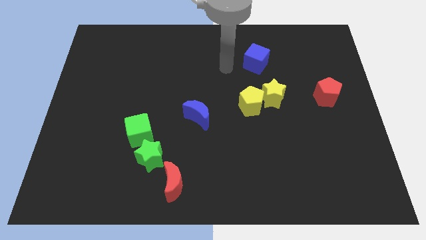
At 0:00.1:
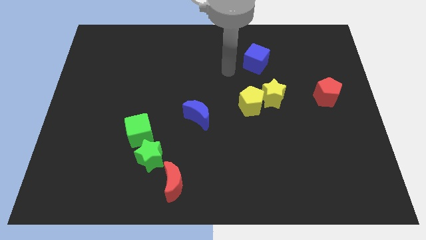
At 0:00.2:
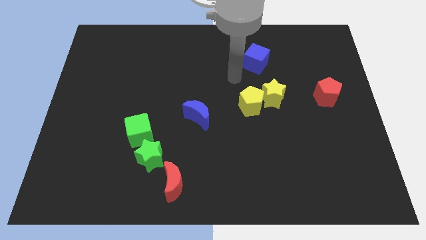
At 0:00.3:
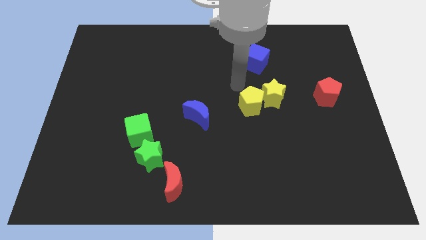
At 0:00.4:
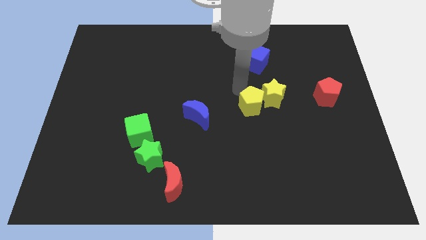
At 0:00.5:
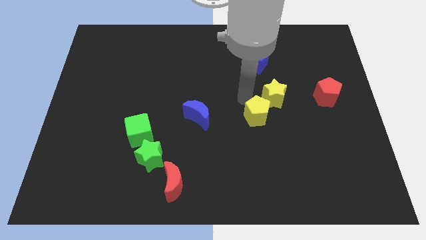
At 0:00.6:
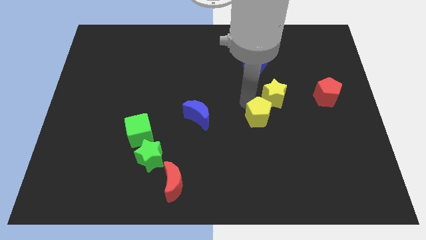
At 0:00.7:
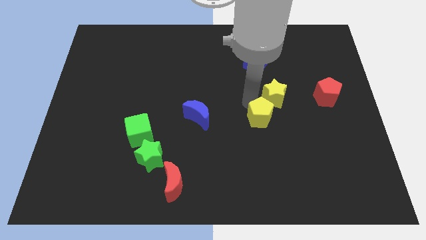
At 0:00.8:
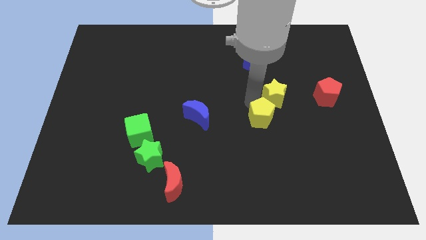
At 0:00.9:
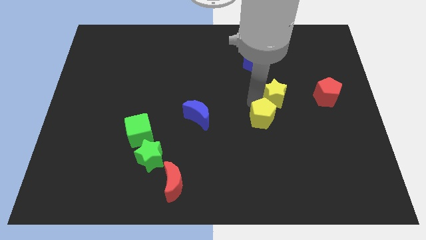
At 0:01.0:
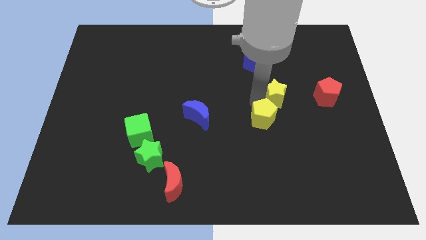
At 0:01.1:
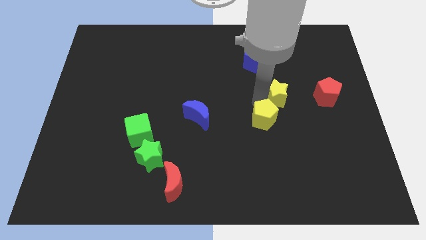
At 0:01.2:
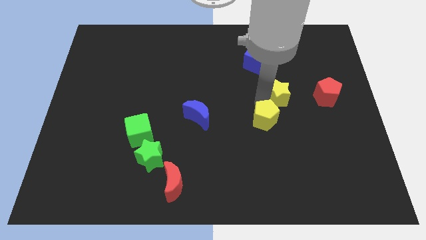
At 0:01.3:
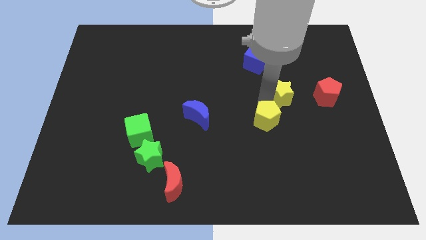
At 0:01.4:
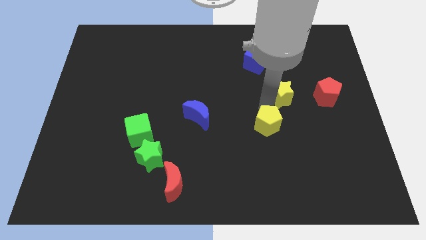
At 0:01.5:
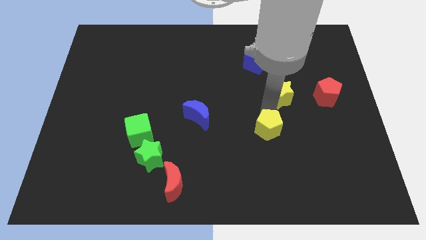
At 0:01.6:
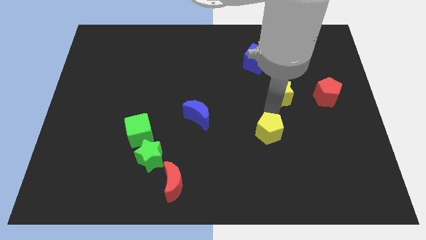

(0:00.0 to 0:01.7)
move the yellow star away from the yellow pentagon

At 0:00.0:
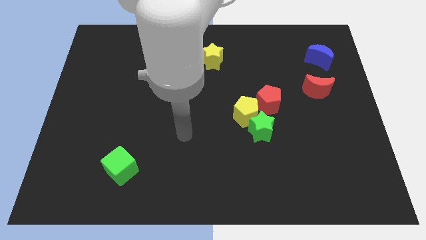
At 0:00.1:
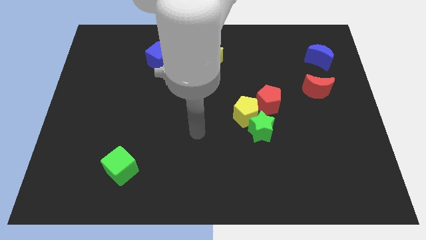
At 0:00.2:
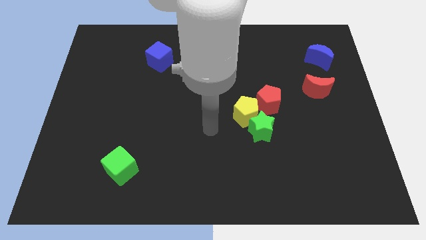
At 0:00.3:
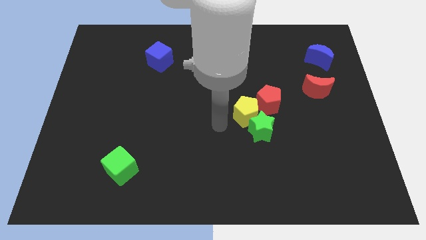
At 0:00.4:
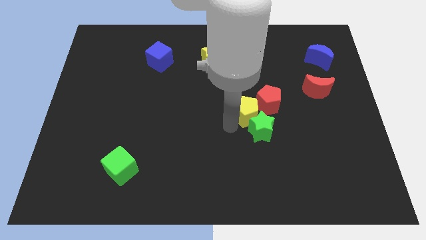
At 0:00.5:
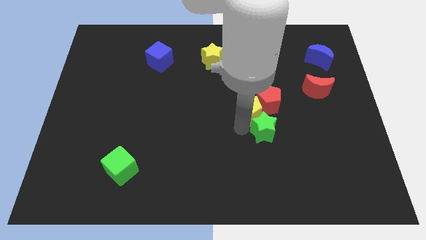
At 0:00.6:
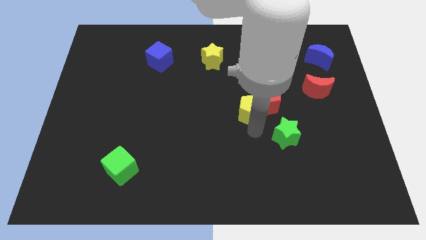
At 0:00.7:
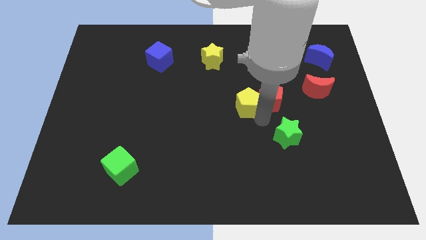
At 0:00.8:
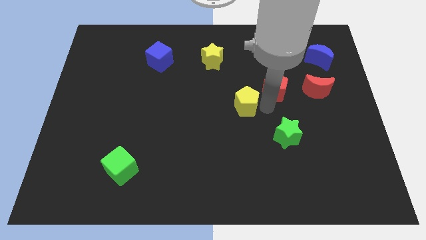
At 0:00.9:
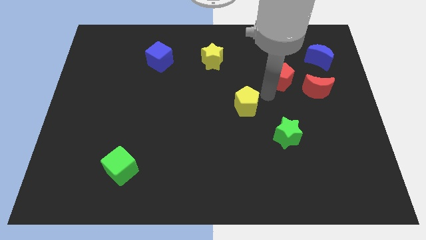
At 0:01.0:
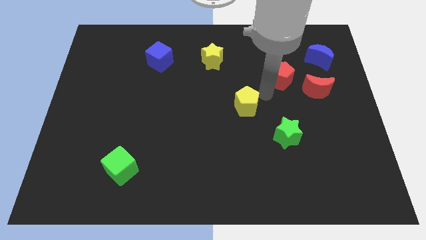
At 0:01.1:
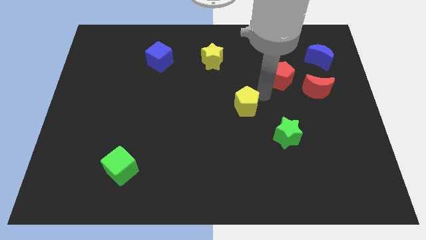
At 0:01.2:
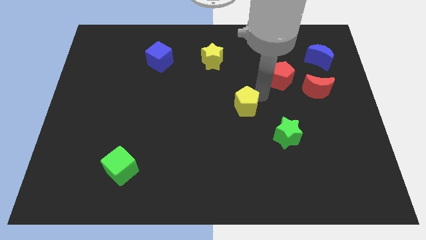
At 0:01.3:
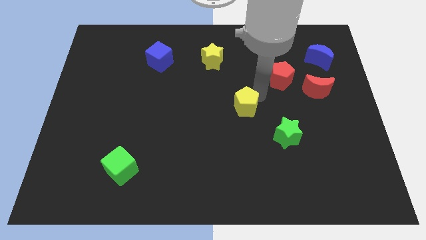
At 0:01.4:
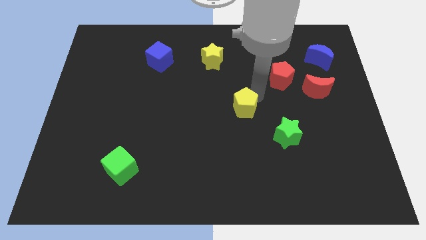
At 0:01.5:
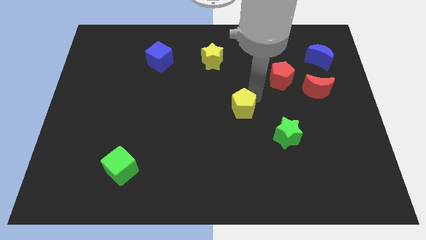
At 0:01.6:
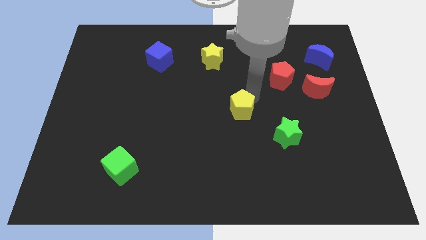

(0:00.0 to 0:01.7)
pull the yellow pentagon apart from the green star and red pentagon

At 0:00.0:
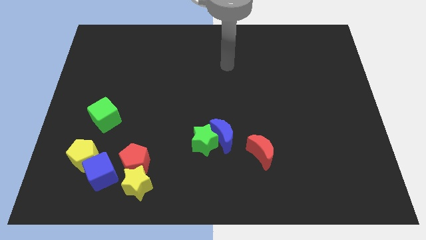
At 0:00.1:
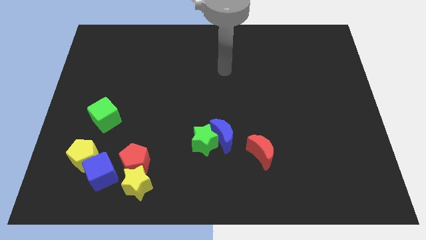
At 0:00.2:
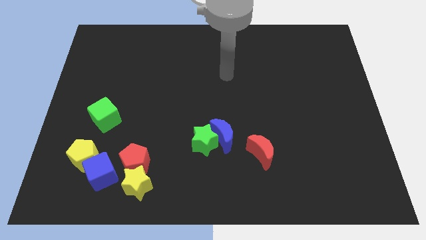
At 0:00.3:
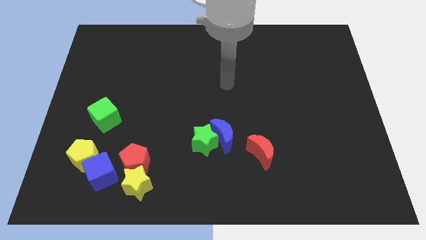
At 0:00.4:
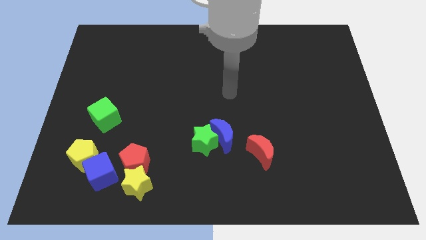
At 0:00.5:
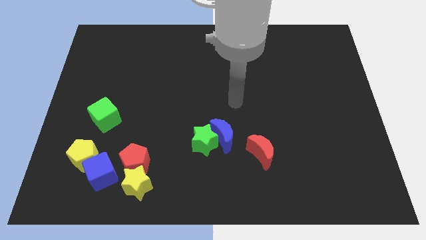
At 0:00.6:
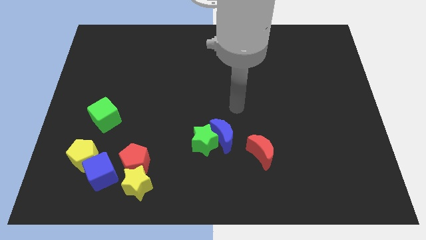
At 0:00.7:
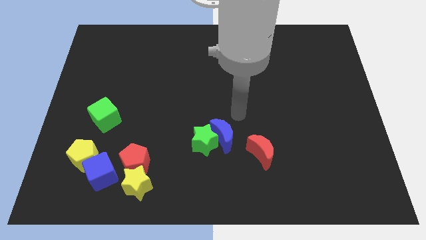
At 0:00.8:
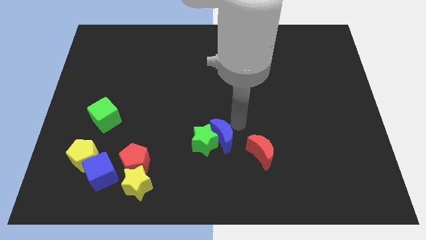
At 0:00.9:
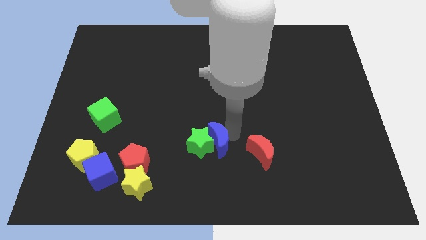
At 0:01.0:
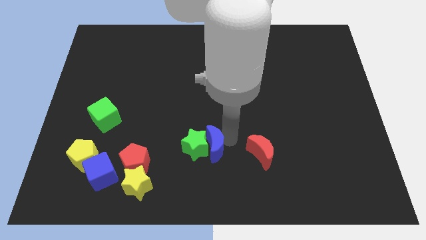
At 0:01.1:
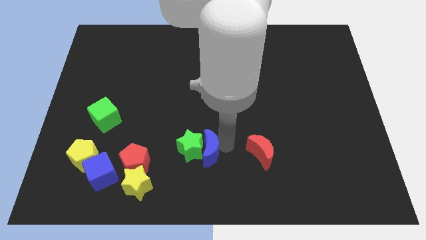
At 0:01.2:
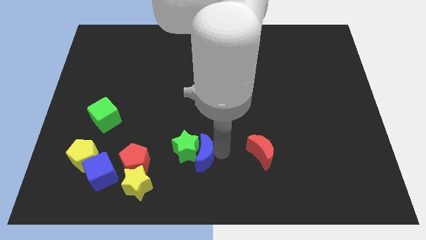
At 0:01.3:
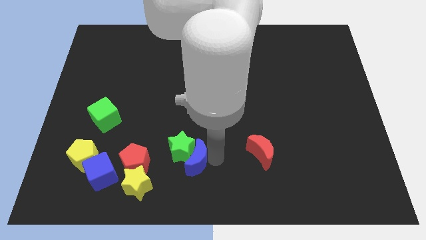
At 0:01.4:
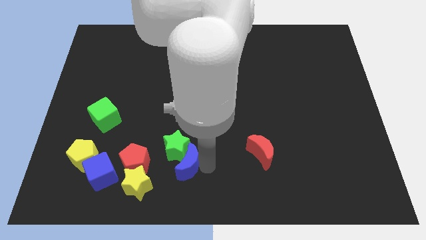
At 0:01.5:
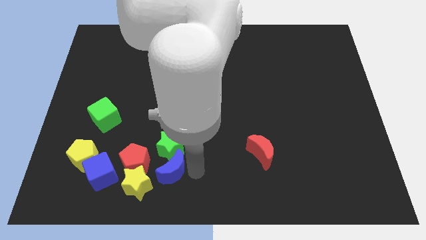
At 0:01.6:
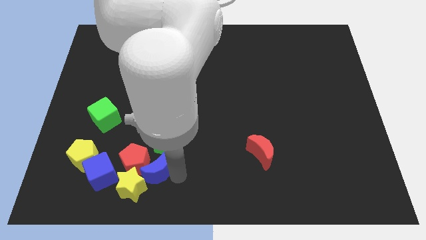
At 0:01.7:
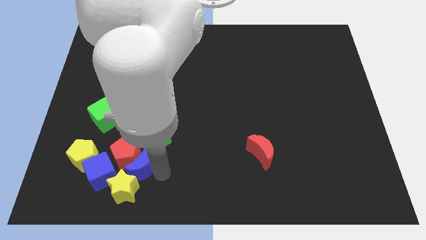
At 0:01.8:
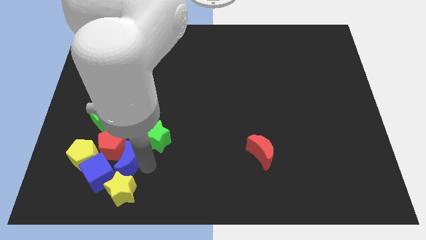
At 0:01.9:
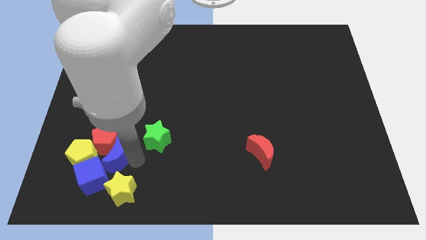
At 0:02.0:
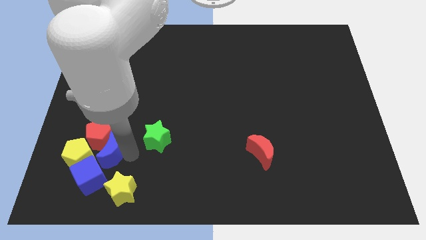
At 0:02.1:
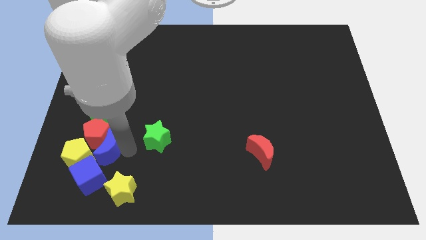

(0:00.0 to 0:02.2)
pull the green star apart from the blue moon

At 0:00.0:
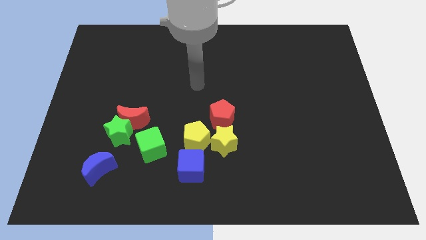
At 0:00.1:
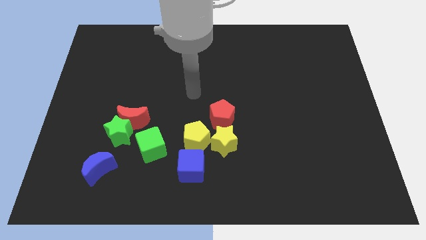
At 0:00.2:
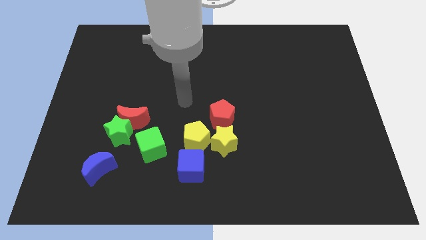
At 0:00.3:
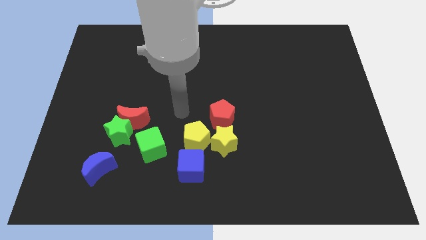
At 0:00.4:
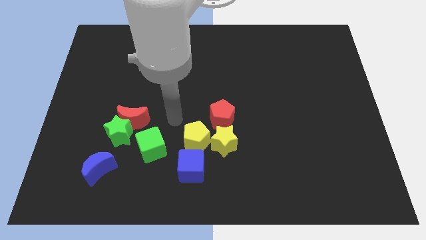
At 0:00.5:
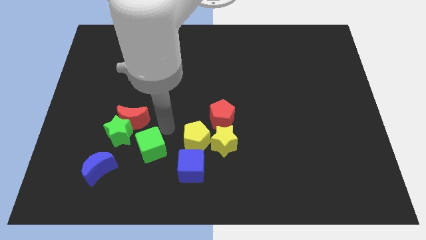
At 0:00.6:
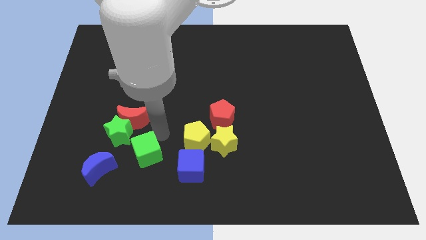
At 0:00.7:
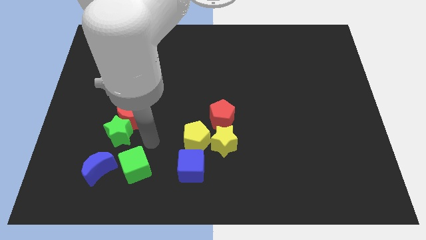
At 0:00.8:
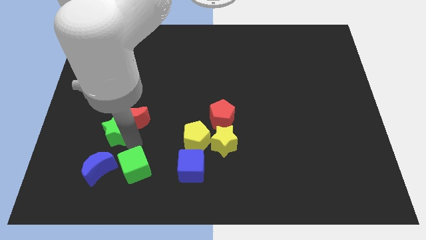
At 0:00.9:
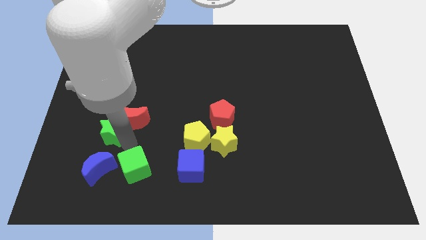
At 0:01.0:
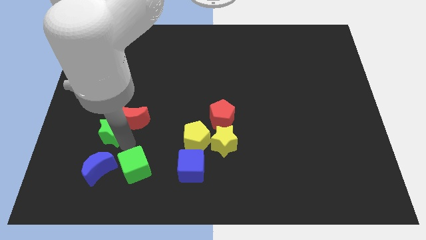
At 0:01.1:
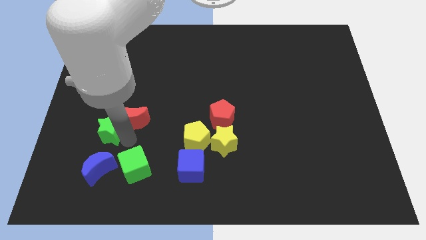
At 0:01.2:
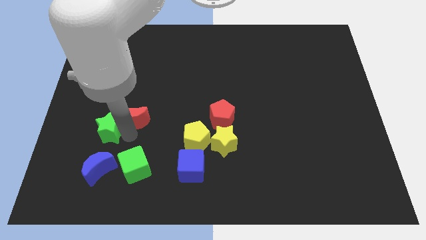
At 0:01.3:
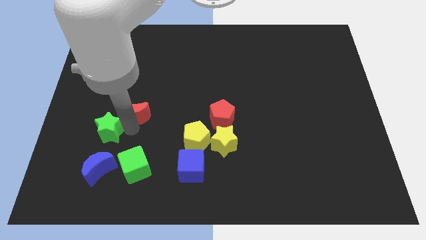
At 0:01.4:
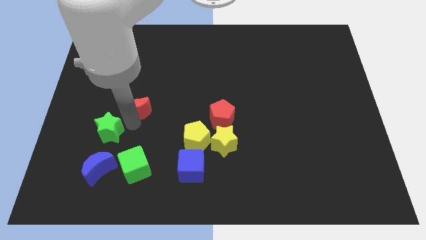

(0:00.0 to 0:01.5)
move the red moon away from the green star and green cube

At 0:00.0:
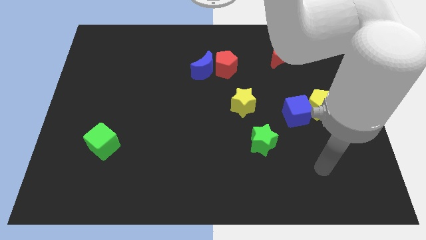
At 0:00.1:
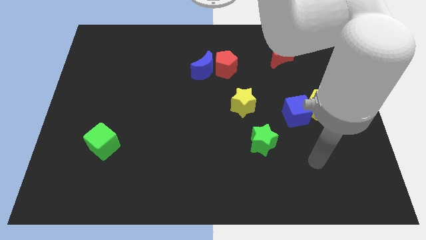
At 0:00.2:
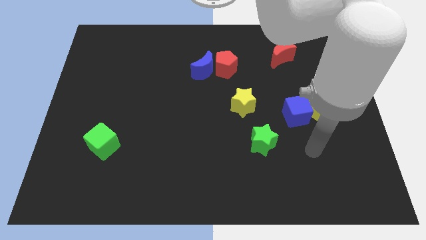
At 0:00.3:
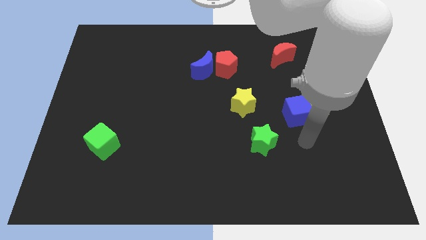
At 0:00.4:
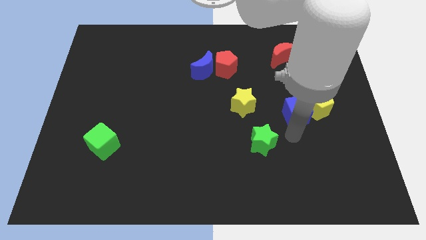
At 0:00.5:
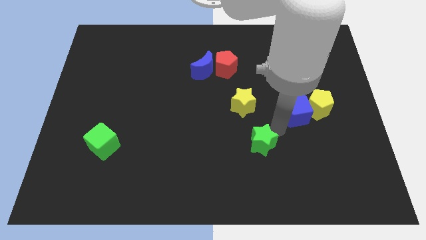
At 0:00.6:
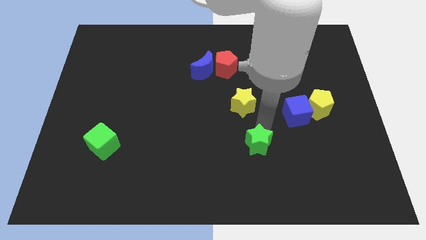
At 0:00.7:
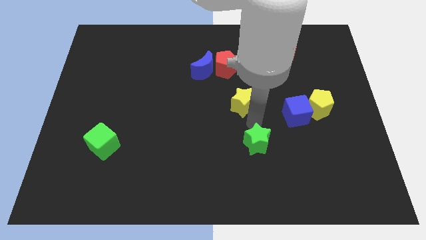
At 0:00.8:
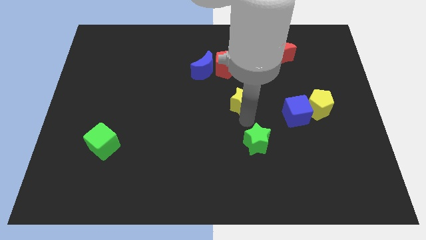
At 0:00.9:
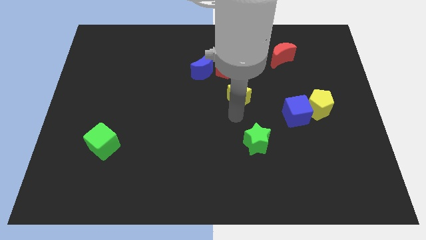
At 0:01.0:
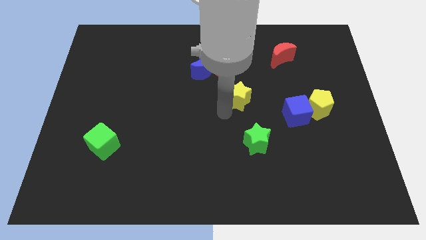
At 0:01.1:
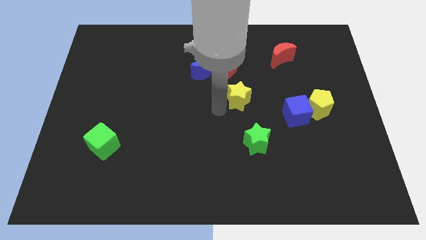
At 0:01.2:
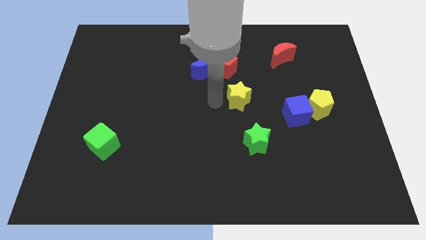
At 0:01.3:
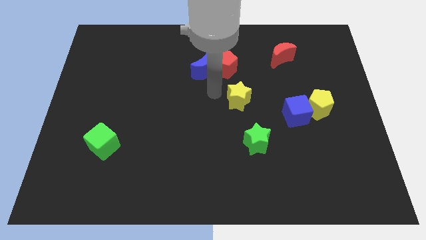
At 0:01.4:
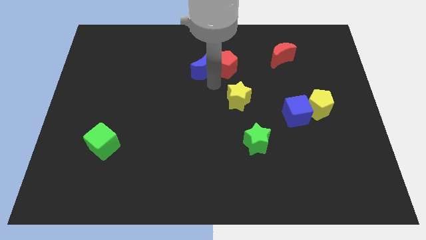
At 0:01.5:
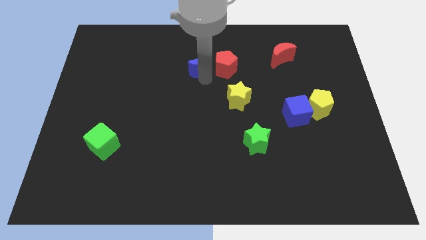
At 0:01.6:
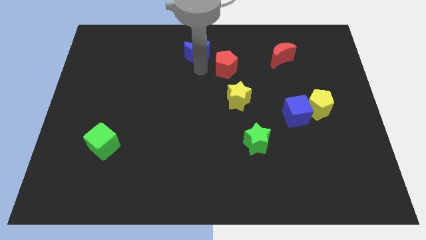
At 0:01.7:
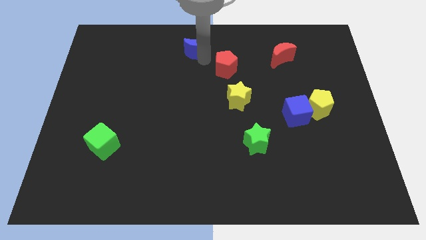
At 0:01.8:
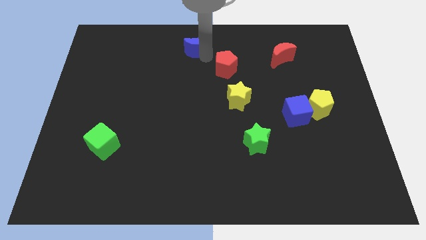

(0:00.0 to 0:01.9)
pull the red pentagon apart from the blue moon

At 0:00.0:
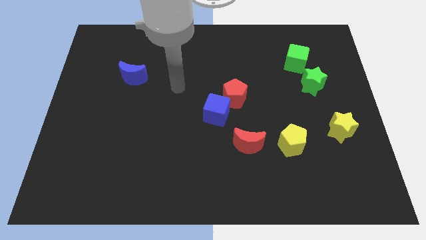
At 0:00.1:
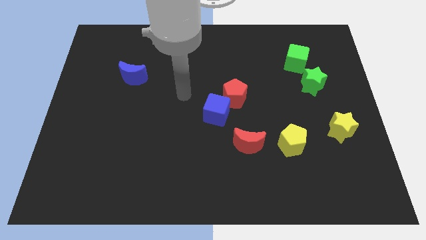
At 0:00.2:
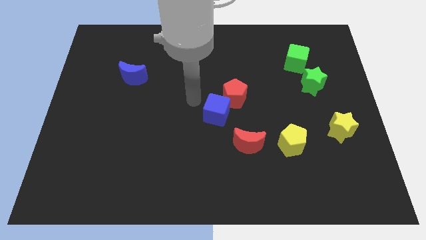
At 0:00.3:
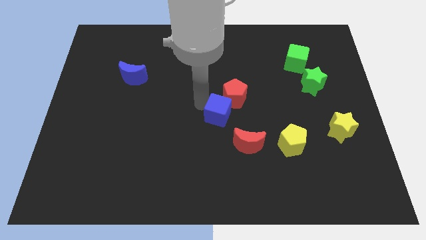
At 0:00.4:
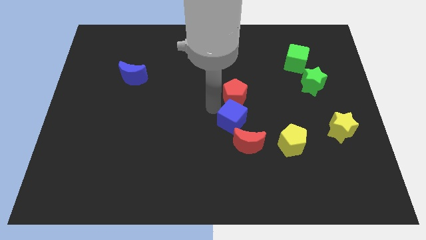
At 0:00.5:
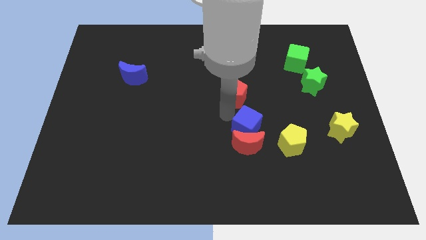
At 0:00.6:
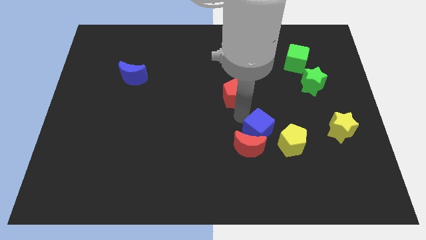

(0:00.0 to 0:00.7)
separate the red pentagon from the blue cube
